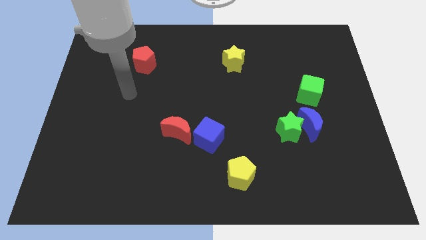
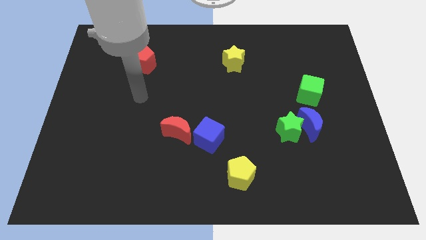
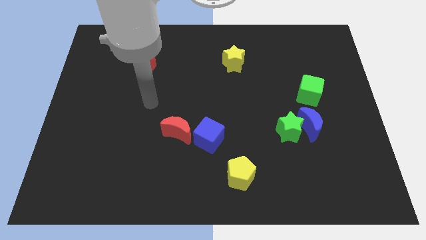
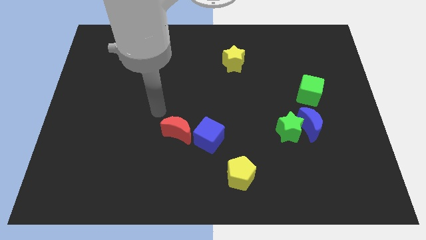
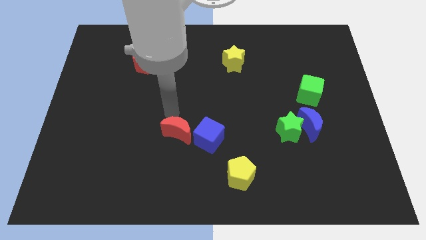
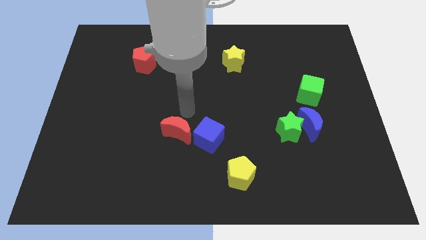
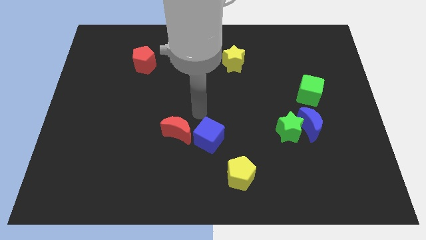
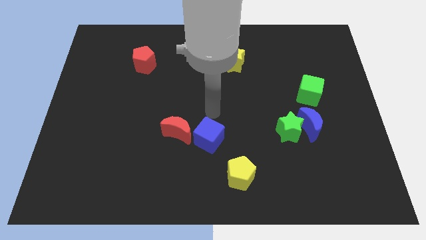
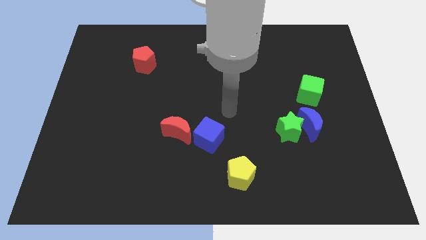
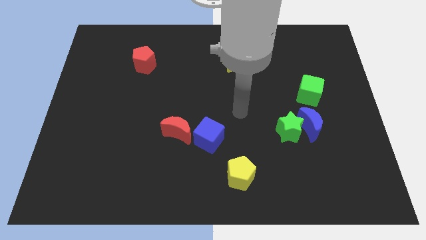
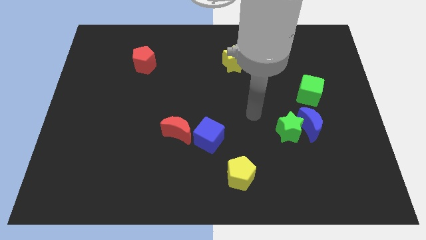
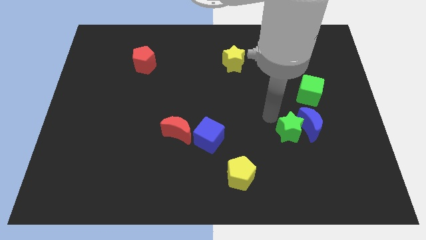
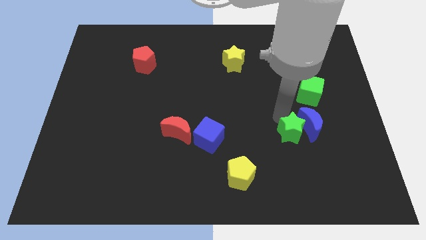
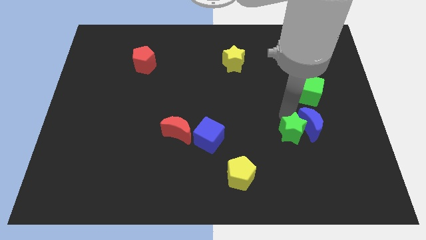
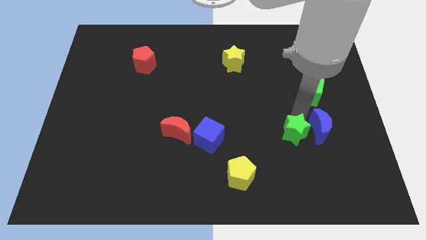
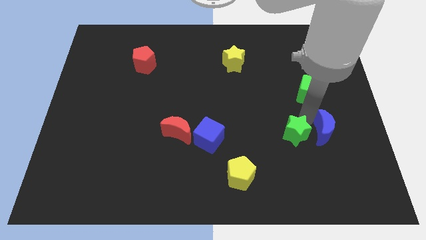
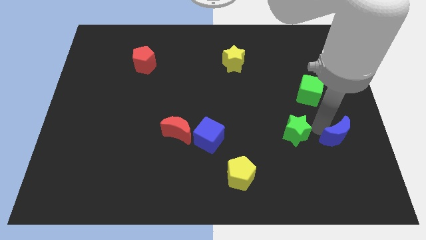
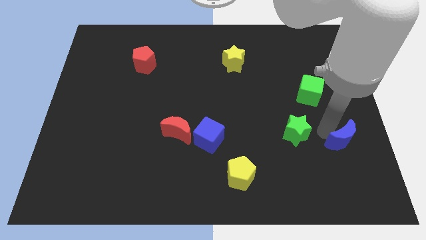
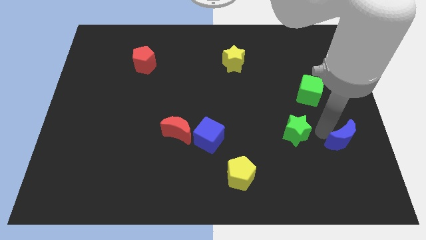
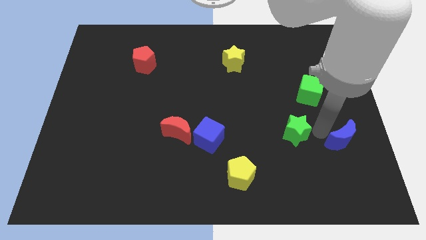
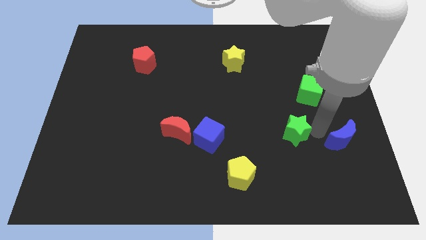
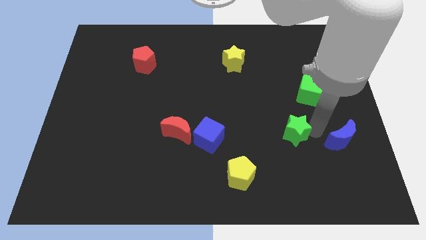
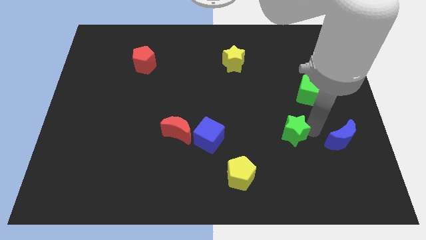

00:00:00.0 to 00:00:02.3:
separate the green star from the blue moon

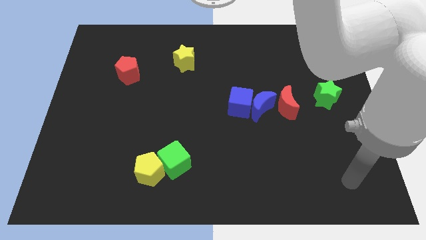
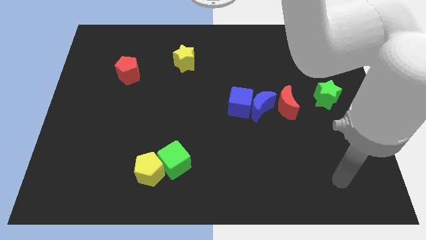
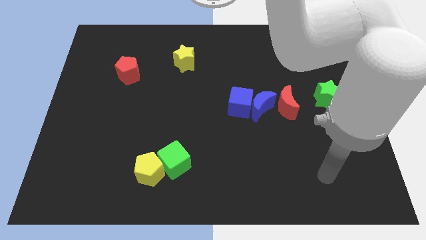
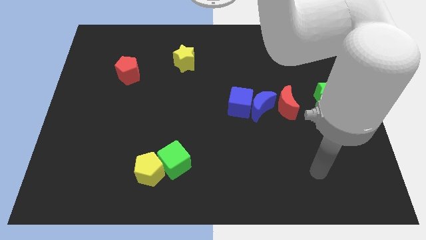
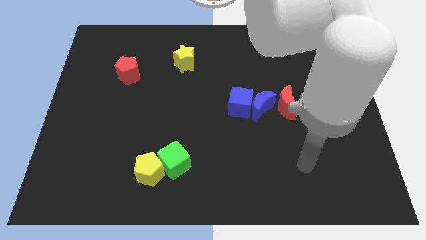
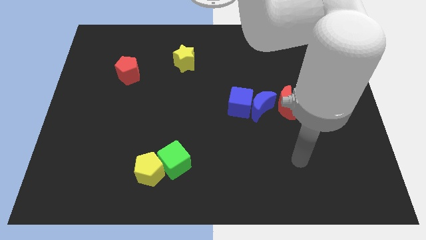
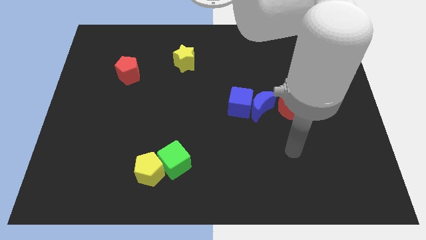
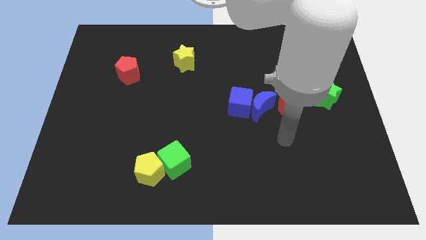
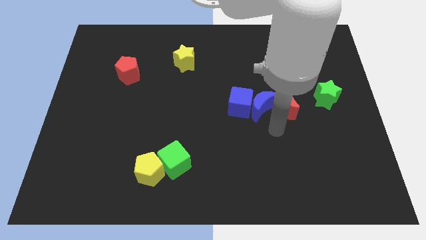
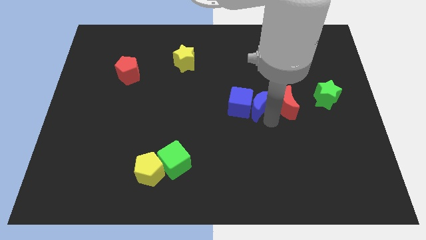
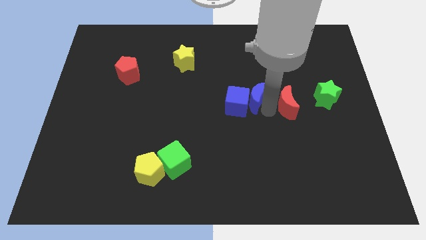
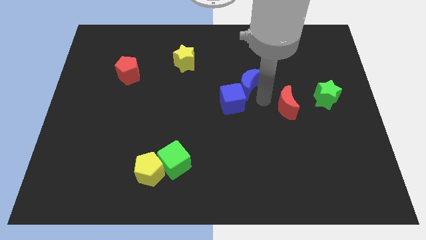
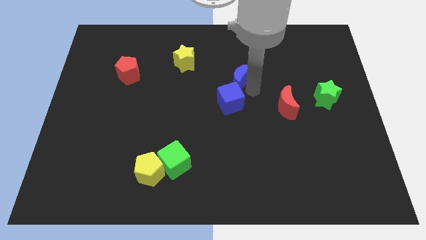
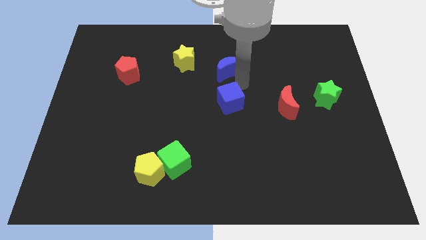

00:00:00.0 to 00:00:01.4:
move the blue cube away from the blue moon

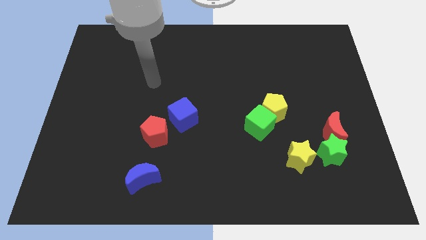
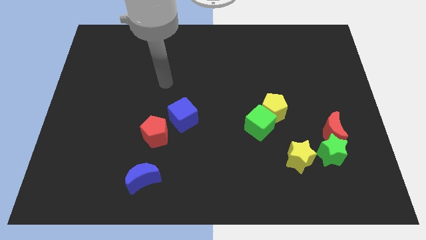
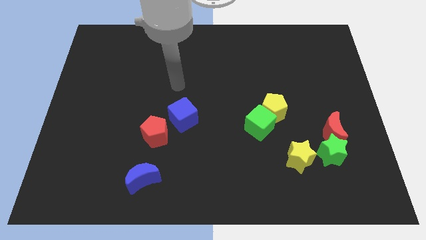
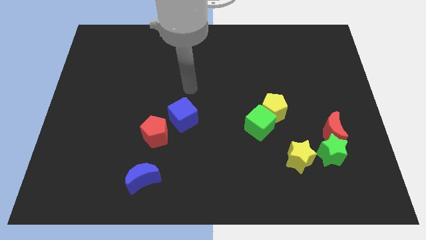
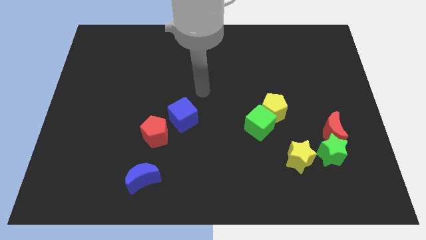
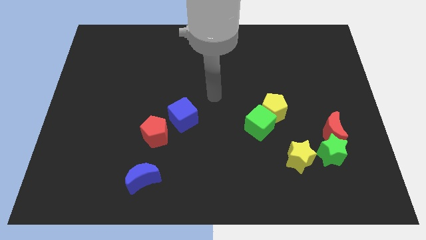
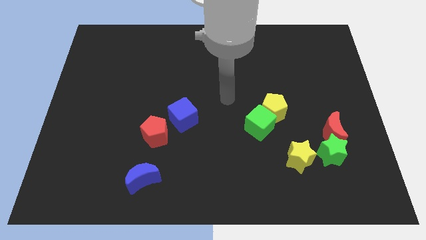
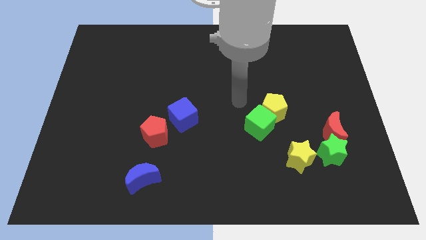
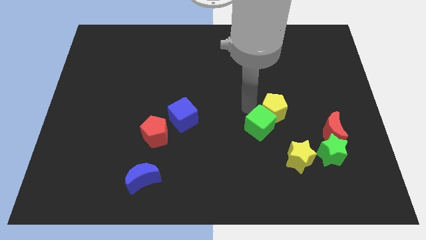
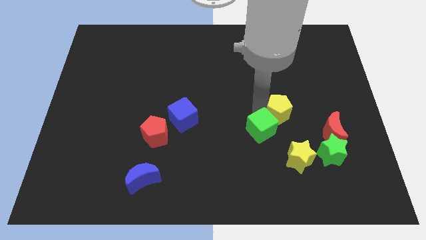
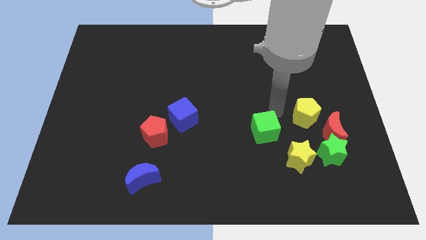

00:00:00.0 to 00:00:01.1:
separate the green cube from the yellow pentagon

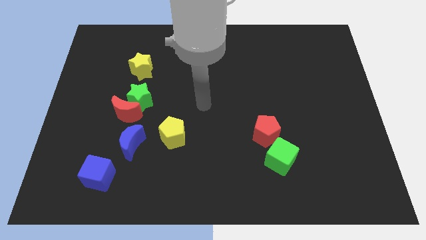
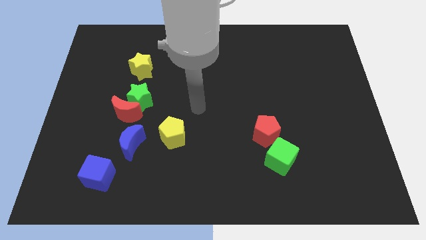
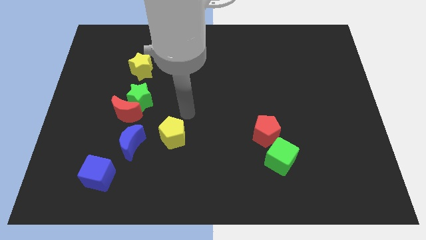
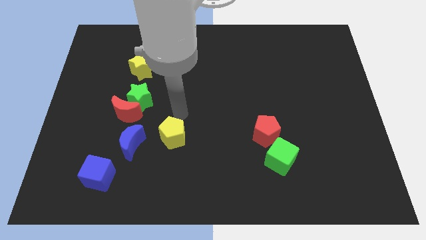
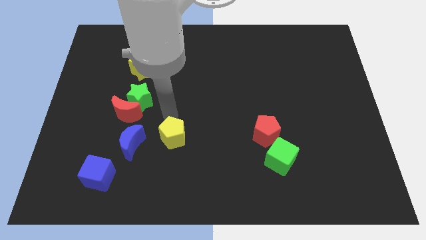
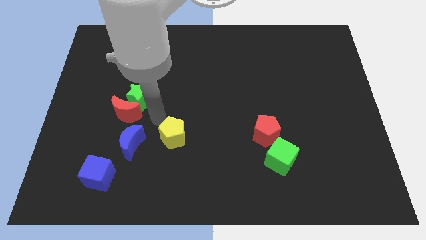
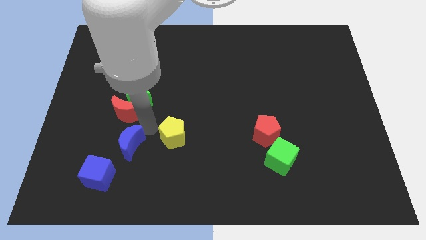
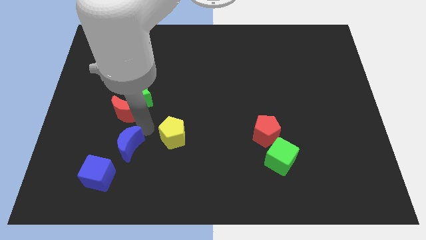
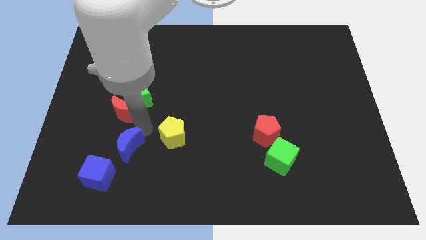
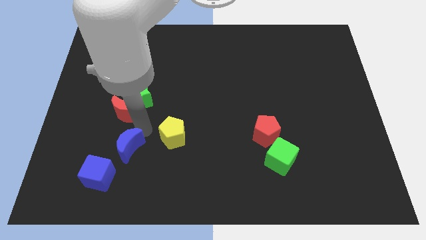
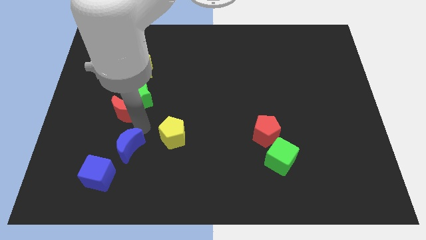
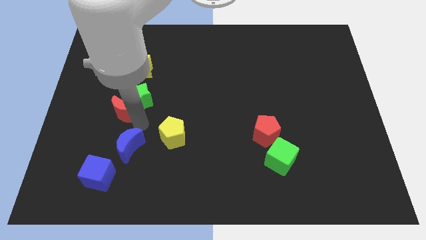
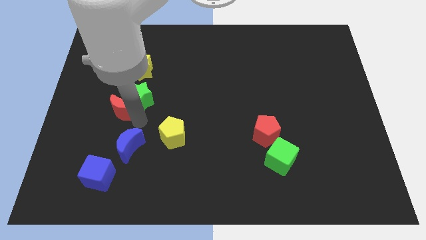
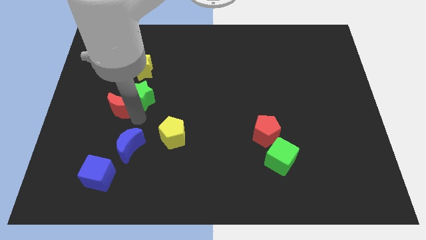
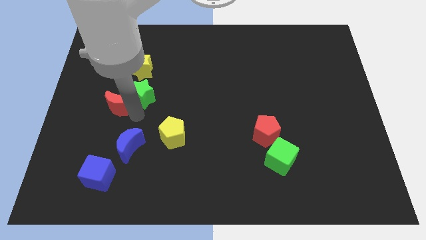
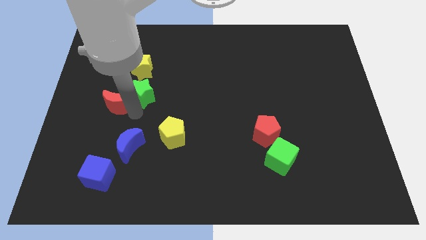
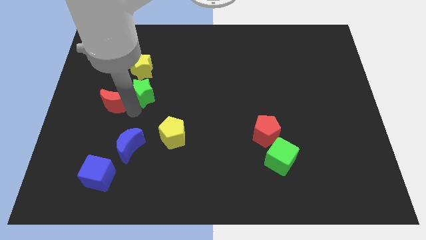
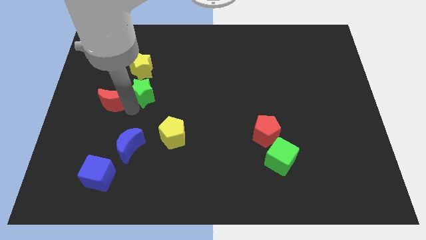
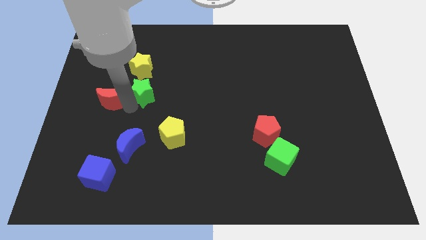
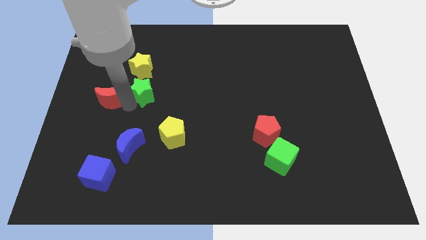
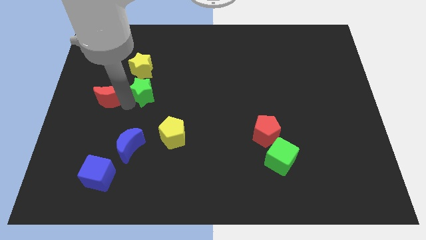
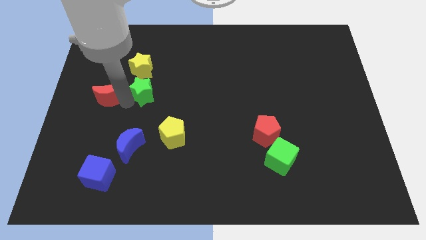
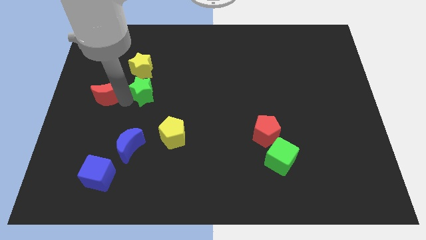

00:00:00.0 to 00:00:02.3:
move the red moon away from the green star and blue moon

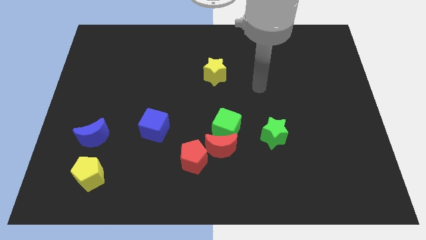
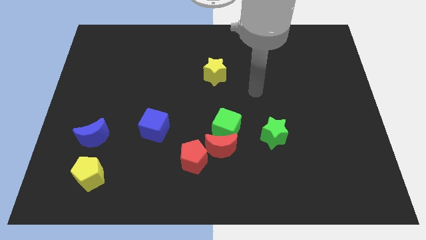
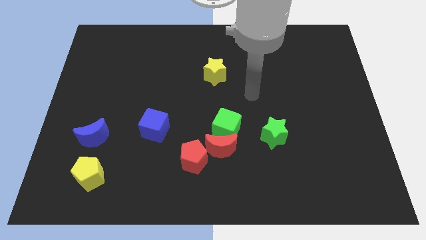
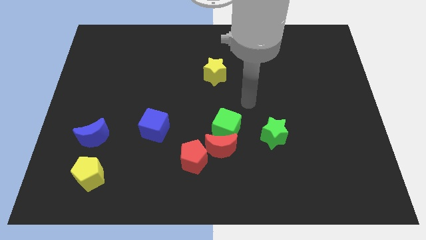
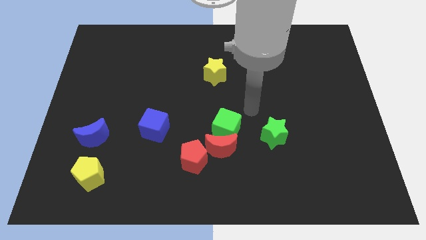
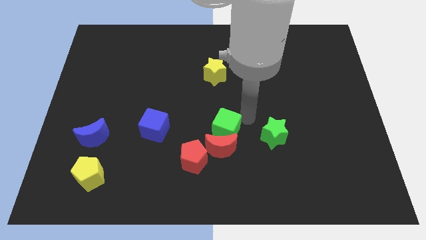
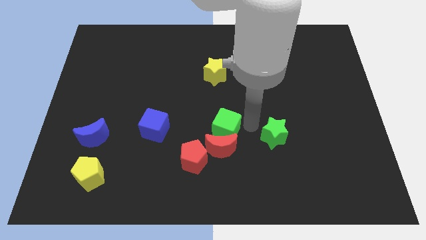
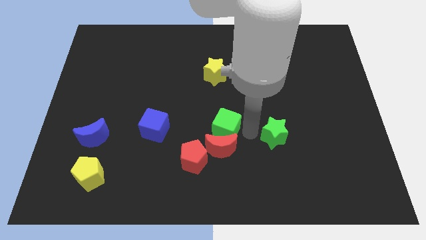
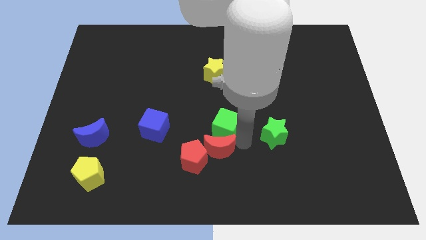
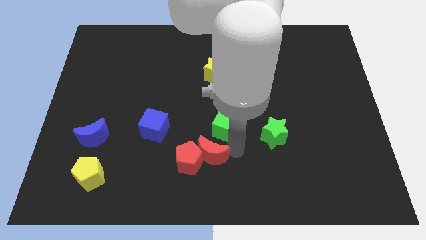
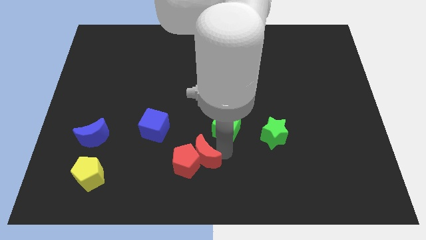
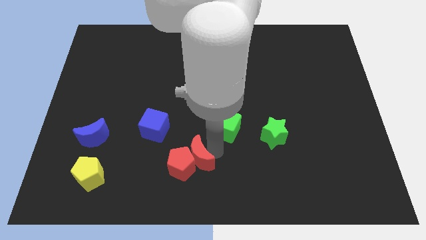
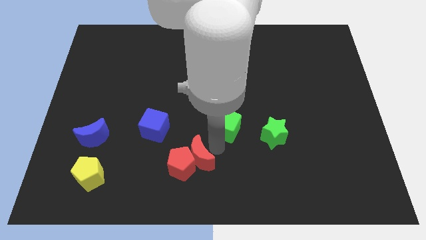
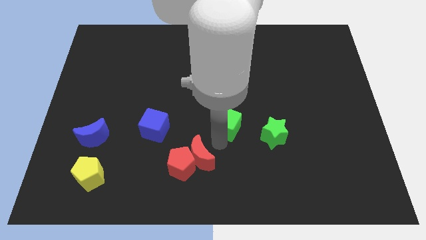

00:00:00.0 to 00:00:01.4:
pull the green cube apart from the red moon

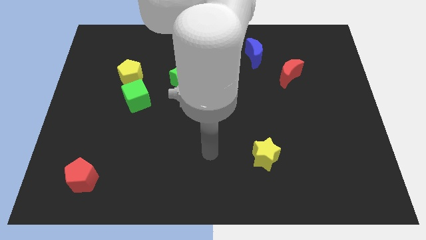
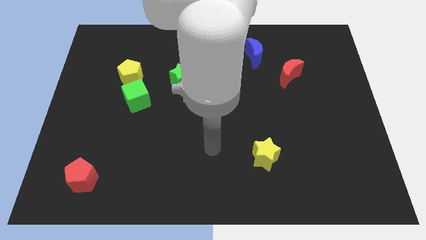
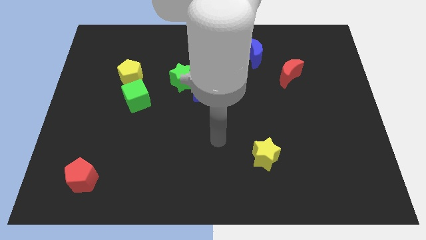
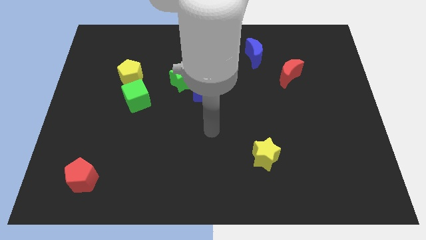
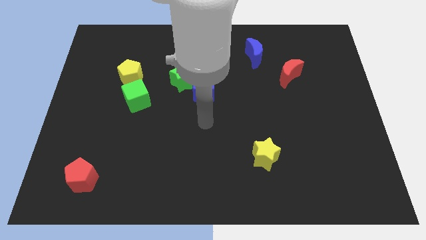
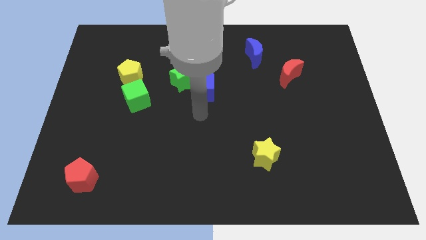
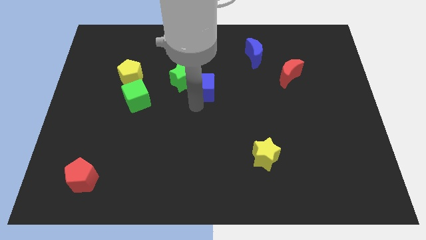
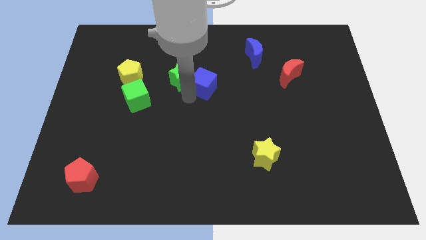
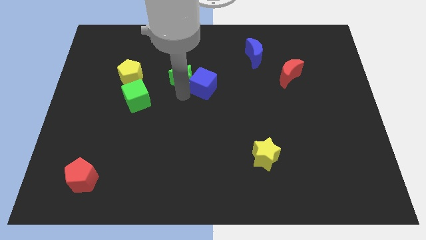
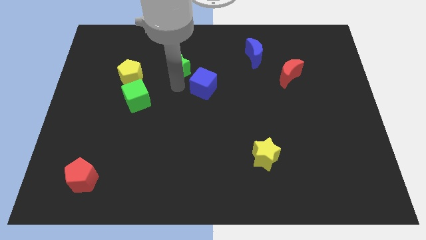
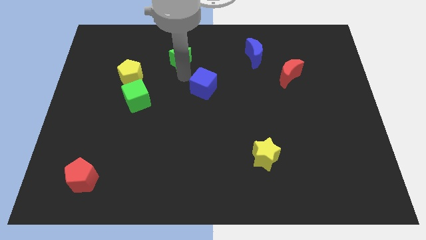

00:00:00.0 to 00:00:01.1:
pull the blue cube apart from the green star
